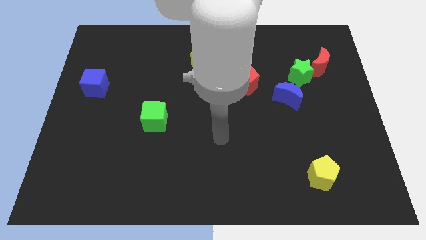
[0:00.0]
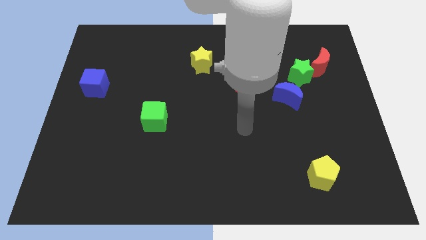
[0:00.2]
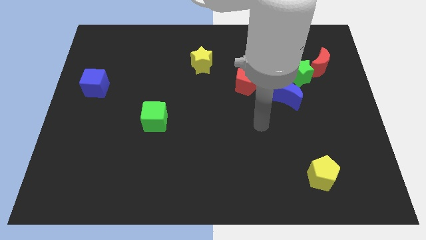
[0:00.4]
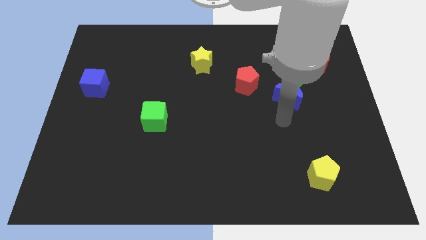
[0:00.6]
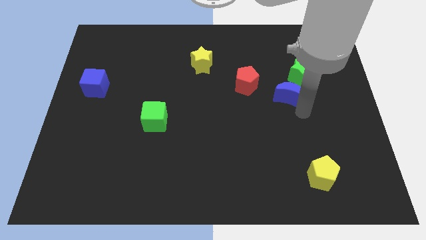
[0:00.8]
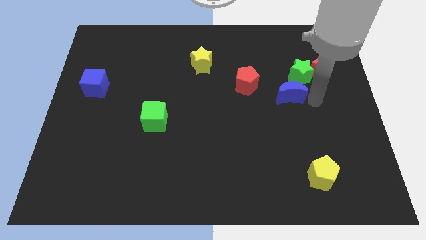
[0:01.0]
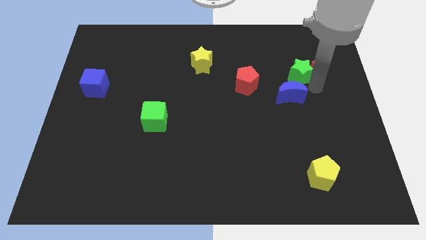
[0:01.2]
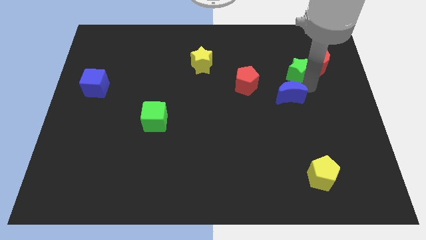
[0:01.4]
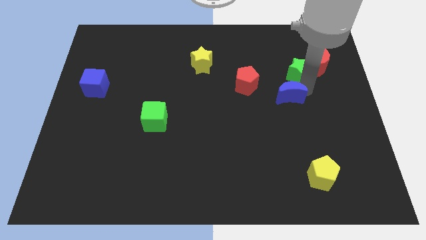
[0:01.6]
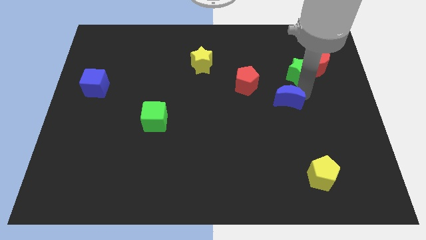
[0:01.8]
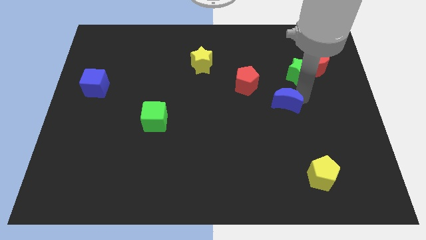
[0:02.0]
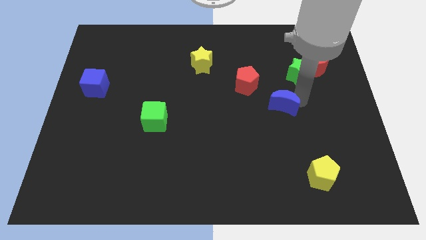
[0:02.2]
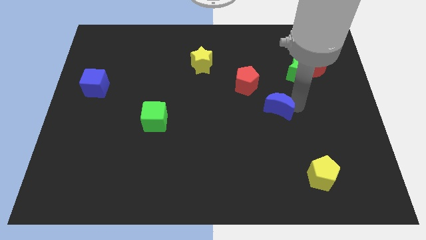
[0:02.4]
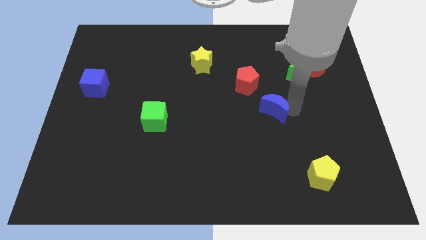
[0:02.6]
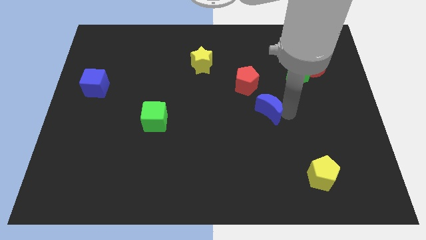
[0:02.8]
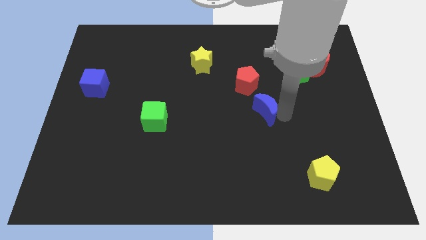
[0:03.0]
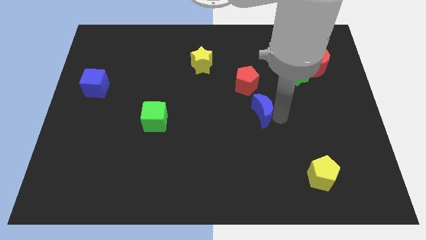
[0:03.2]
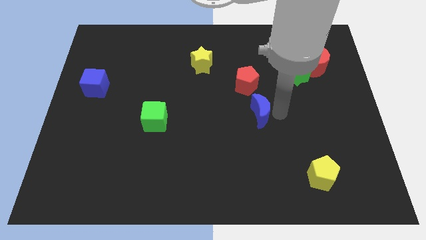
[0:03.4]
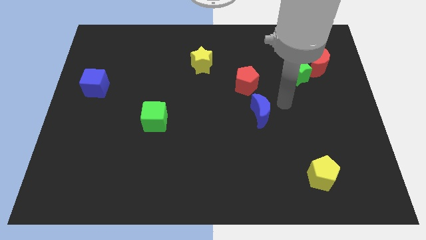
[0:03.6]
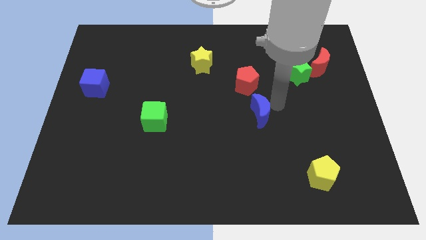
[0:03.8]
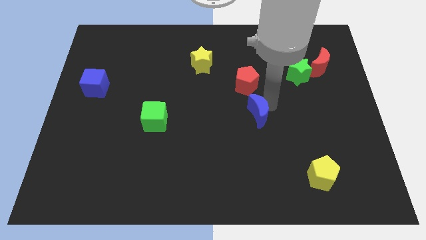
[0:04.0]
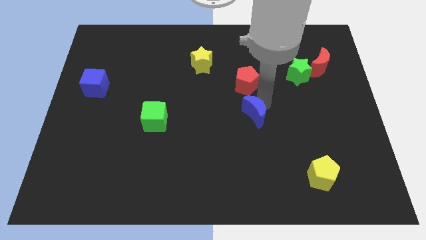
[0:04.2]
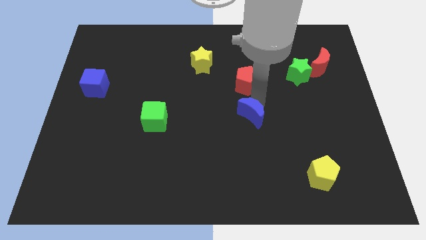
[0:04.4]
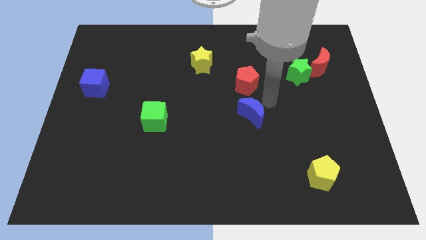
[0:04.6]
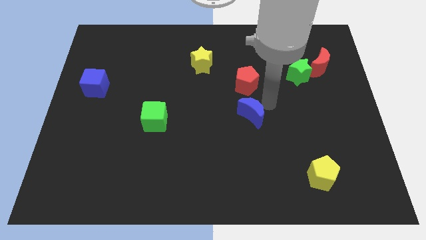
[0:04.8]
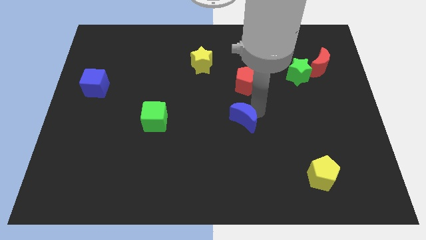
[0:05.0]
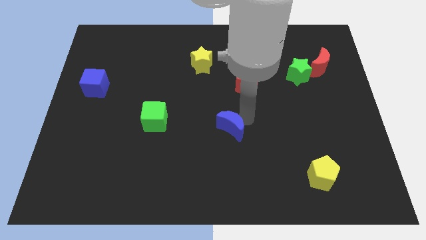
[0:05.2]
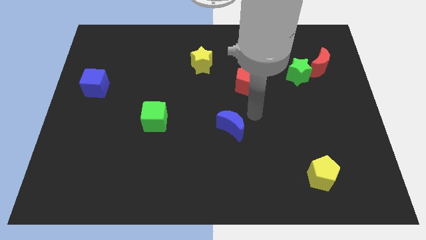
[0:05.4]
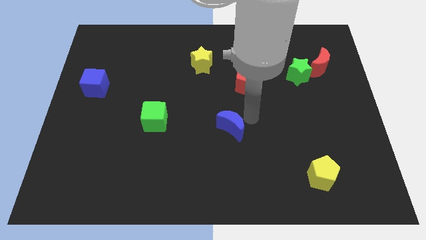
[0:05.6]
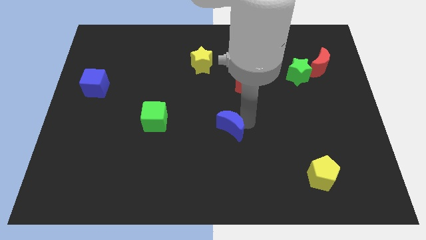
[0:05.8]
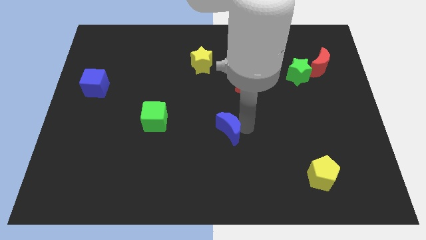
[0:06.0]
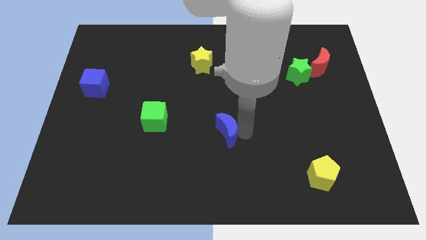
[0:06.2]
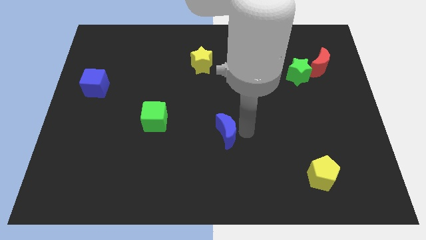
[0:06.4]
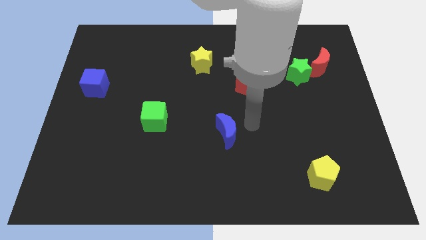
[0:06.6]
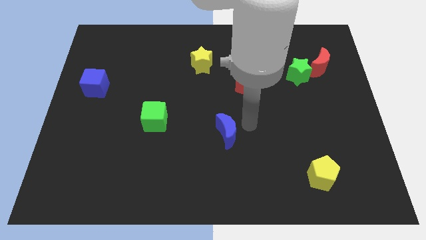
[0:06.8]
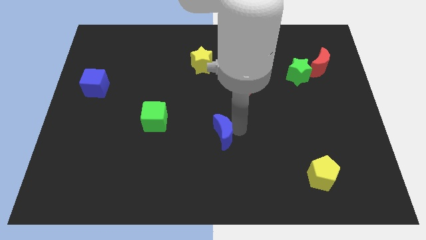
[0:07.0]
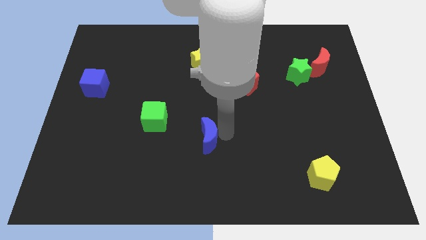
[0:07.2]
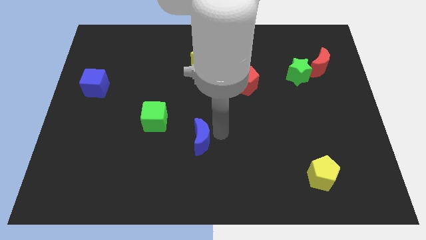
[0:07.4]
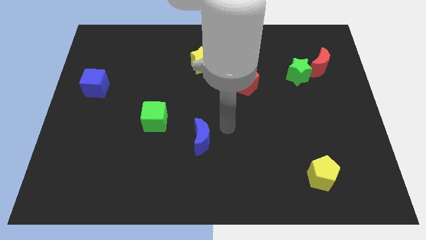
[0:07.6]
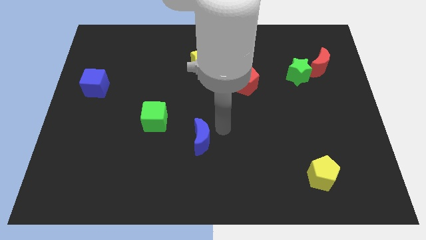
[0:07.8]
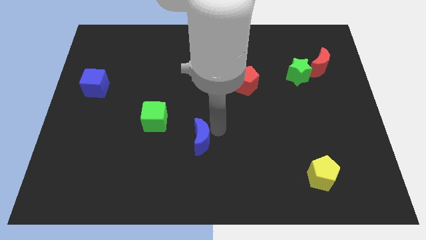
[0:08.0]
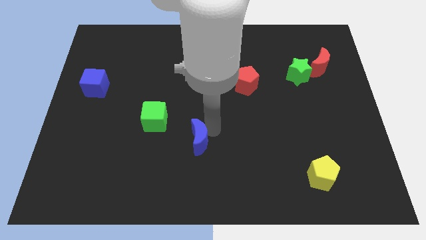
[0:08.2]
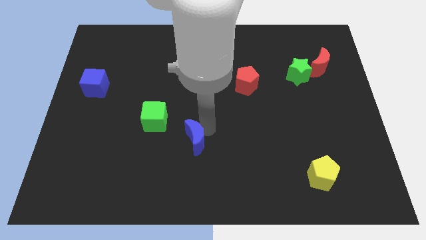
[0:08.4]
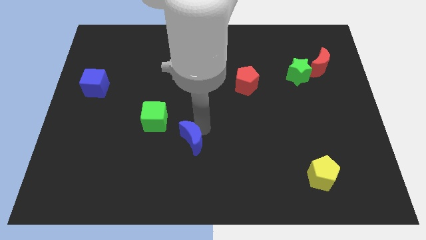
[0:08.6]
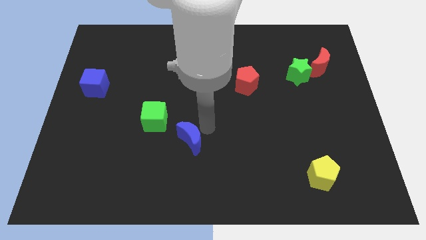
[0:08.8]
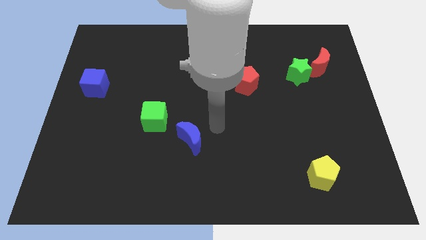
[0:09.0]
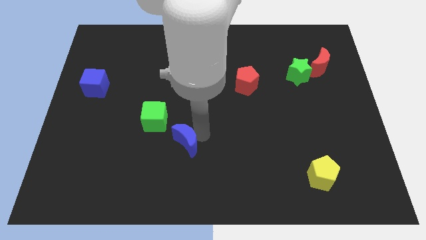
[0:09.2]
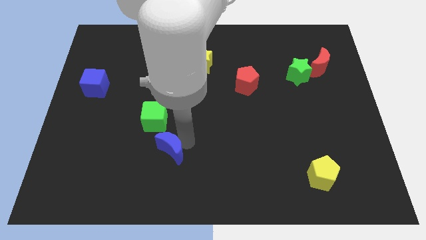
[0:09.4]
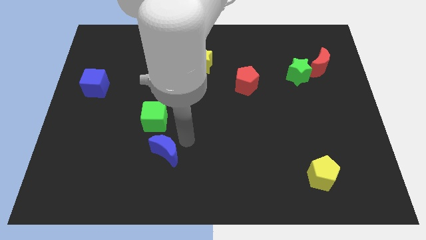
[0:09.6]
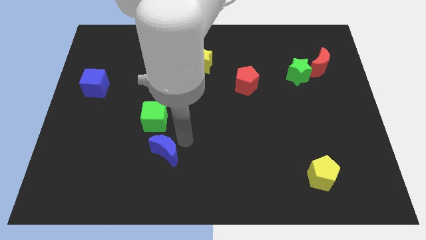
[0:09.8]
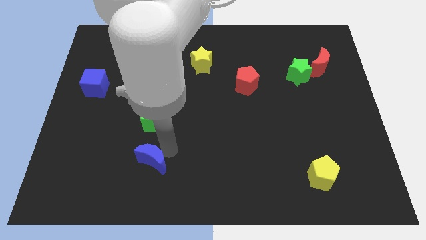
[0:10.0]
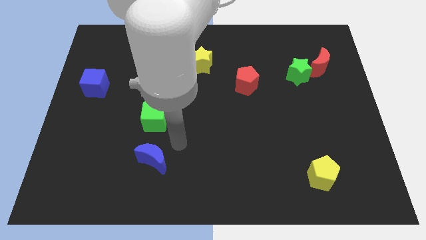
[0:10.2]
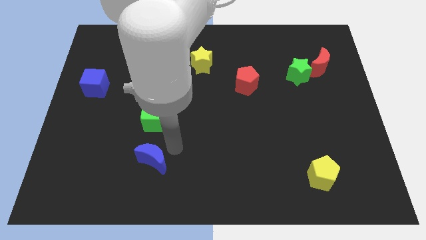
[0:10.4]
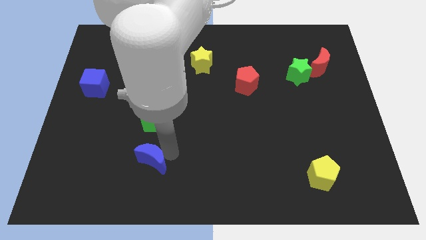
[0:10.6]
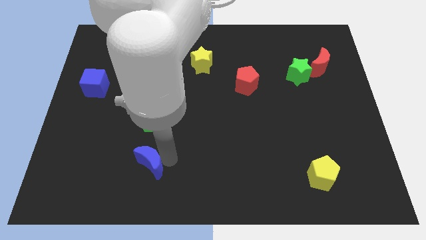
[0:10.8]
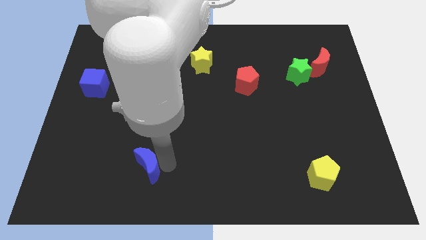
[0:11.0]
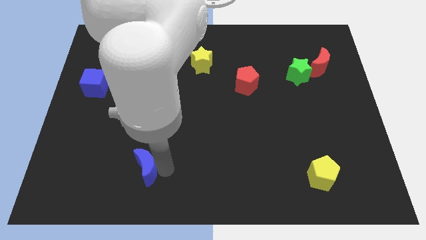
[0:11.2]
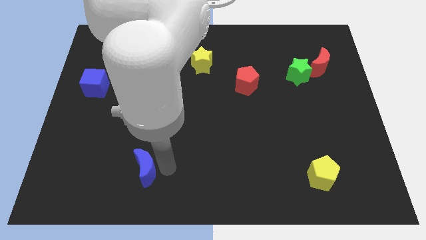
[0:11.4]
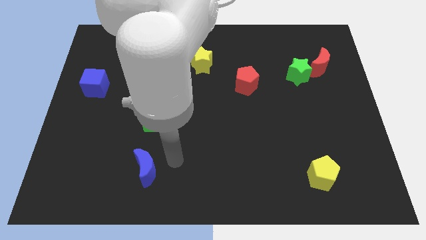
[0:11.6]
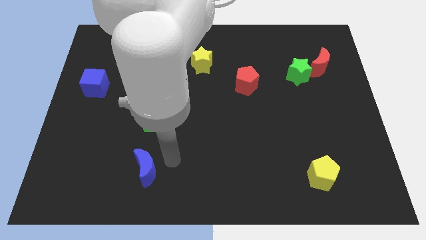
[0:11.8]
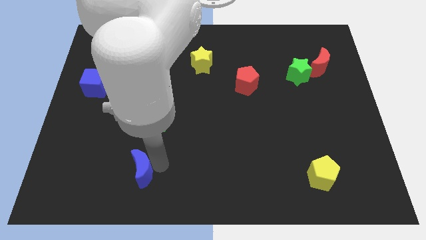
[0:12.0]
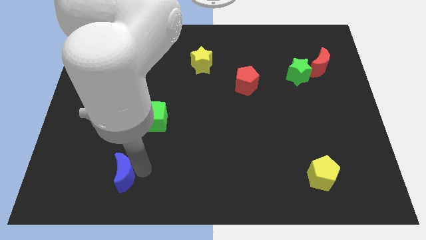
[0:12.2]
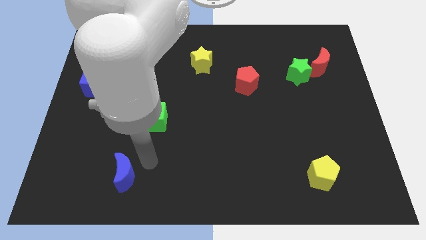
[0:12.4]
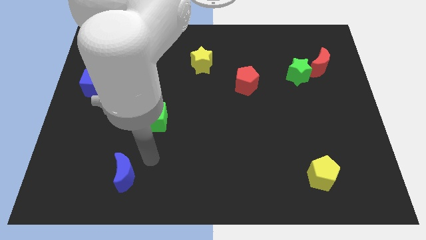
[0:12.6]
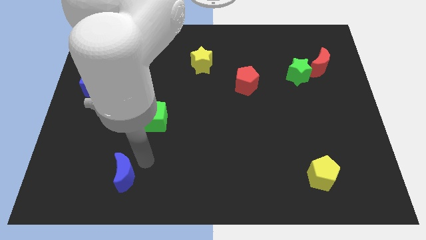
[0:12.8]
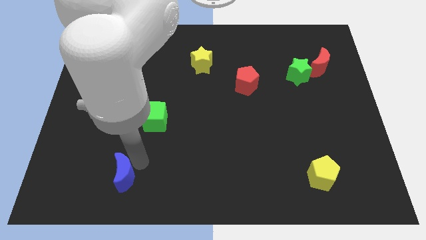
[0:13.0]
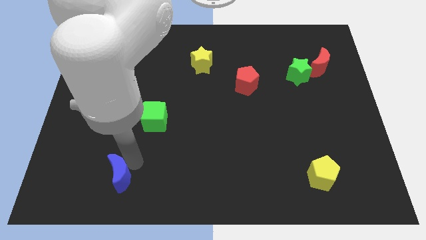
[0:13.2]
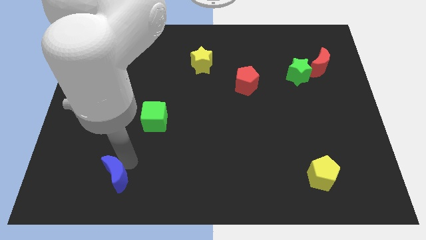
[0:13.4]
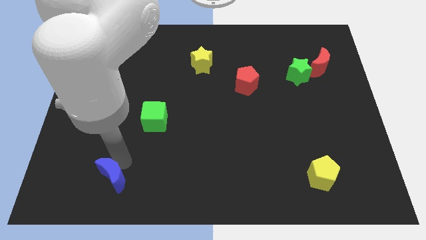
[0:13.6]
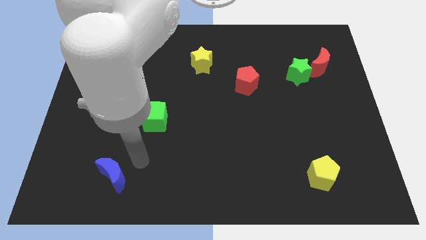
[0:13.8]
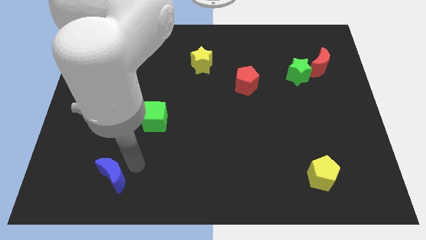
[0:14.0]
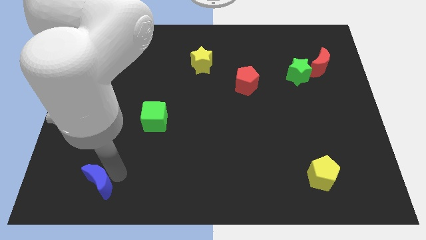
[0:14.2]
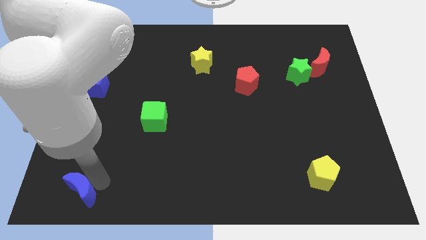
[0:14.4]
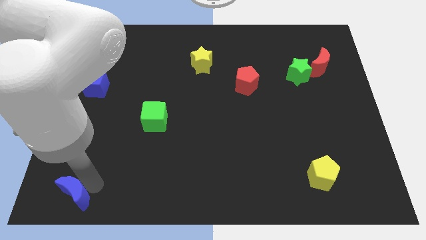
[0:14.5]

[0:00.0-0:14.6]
slide the blue moon to the bottom left corner
